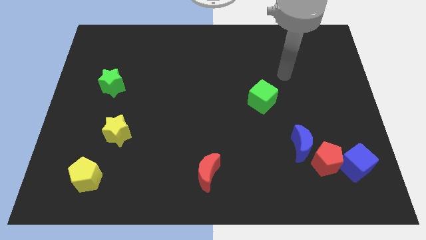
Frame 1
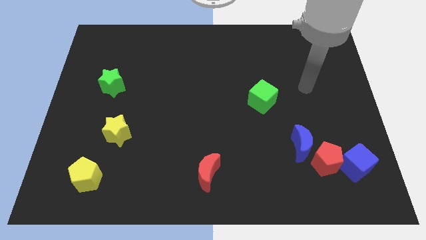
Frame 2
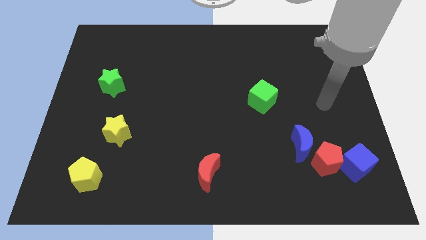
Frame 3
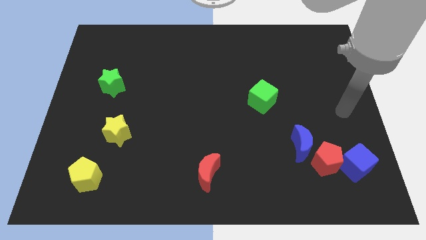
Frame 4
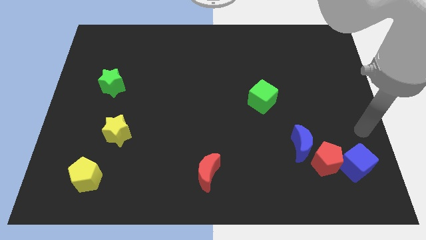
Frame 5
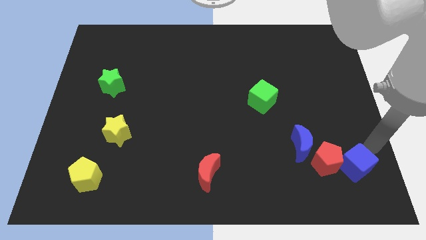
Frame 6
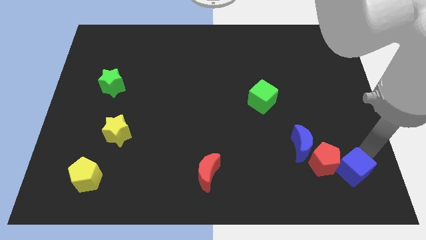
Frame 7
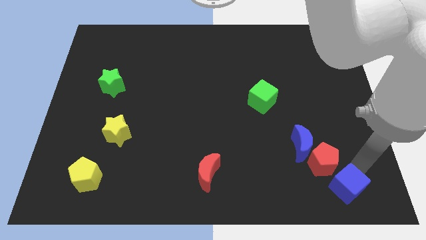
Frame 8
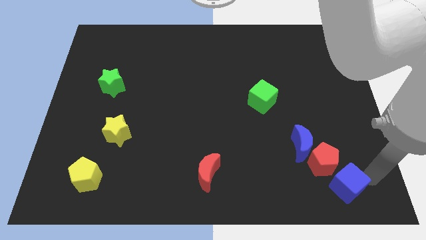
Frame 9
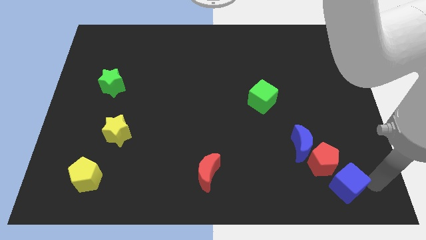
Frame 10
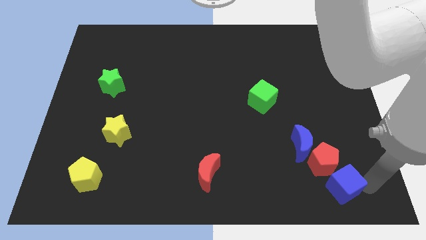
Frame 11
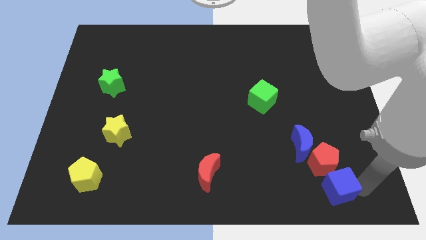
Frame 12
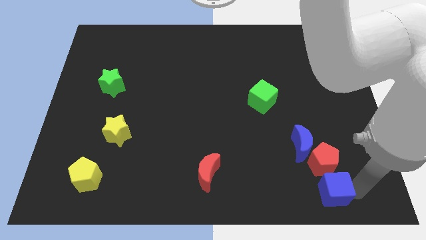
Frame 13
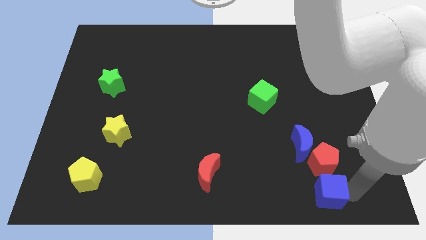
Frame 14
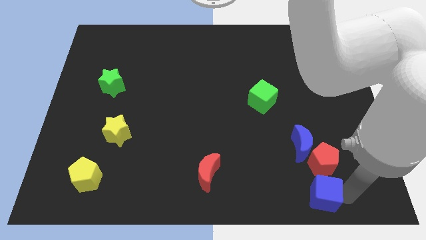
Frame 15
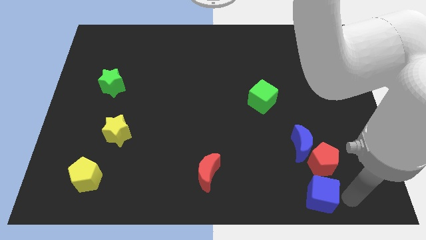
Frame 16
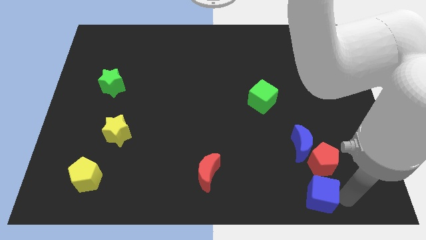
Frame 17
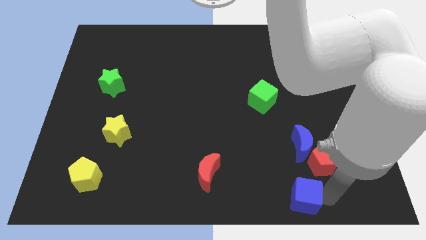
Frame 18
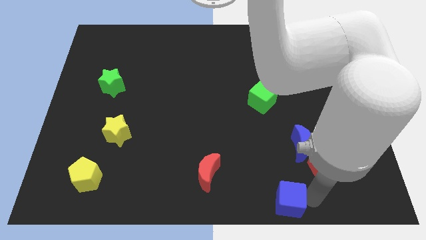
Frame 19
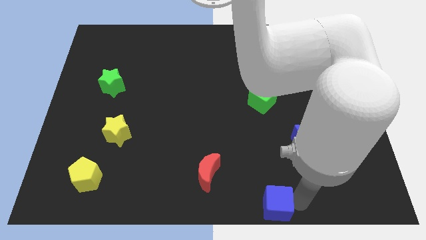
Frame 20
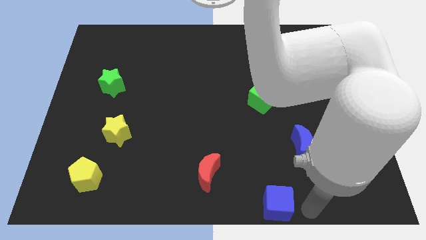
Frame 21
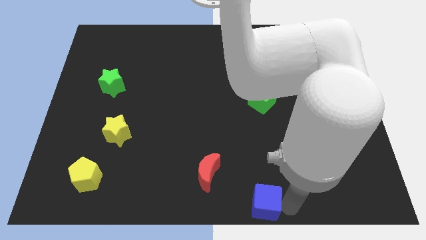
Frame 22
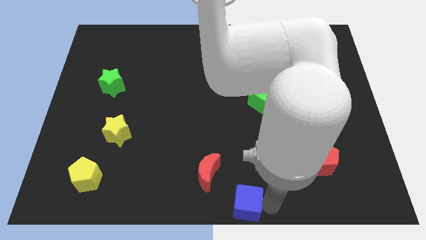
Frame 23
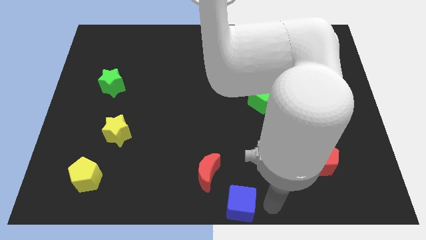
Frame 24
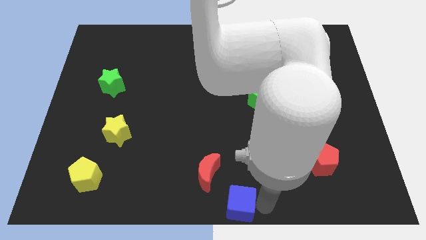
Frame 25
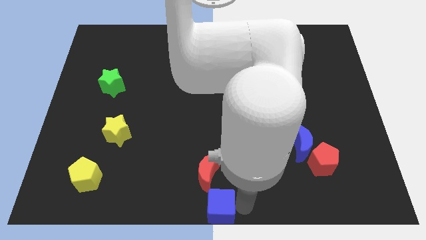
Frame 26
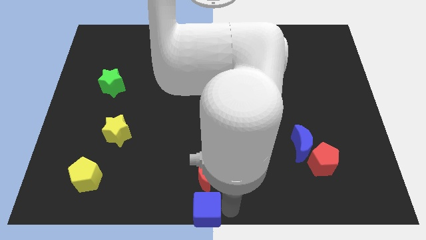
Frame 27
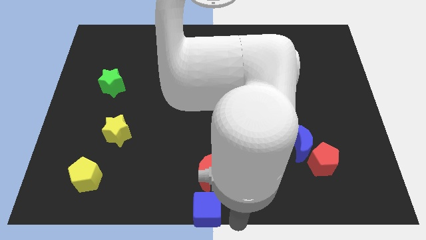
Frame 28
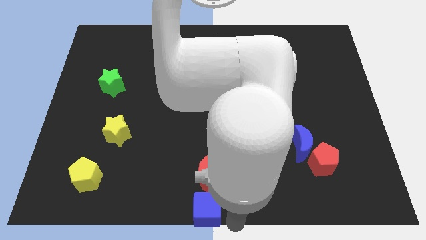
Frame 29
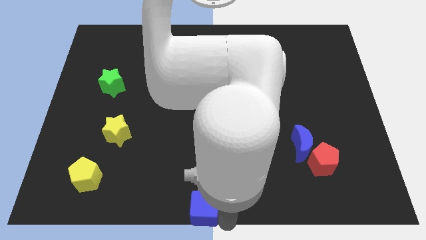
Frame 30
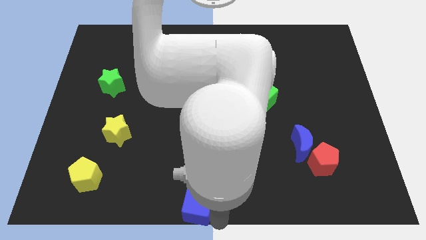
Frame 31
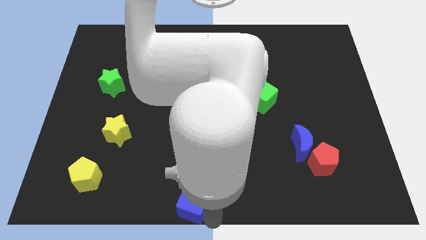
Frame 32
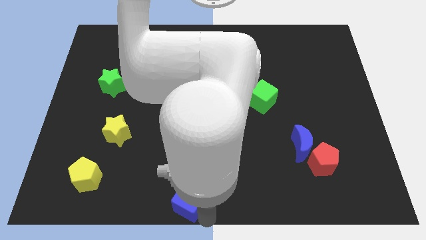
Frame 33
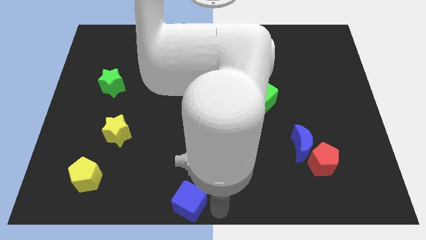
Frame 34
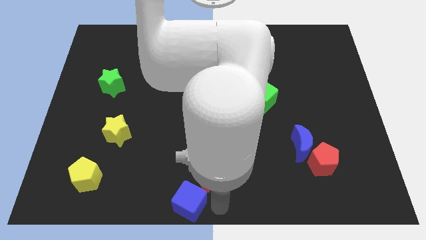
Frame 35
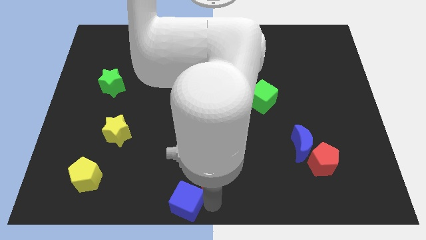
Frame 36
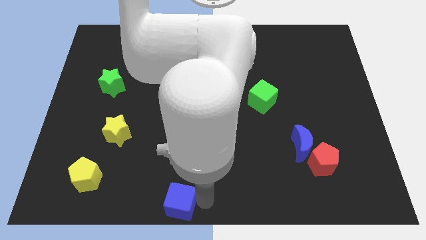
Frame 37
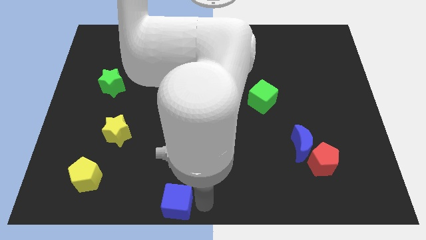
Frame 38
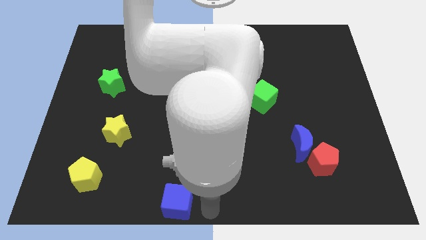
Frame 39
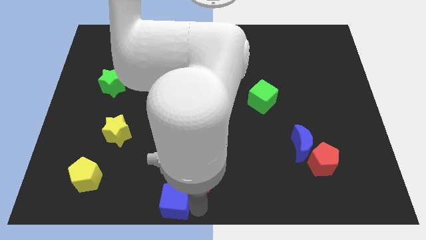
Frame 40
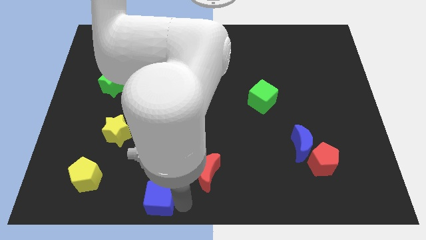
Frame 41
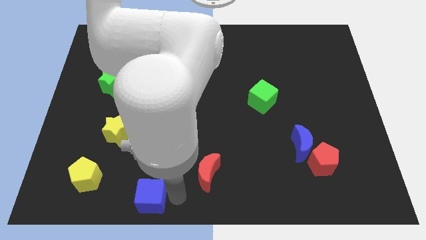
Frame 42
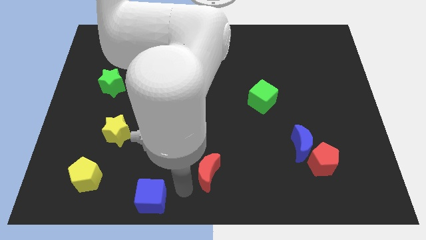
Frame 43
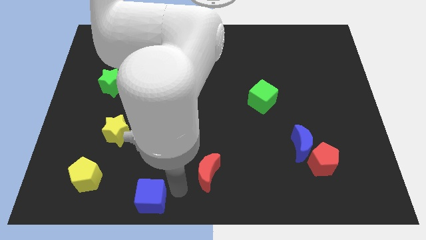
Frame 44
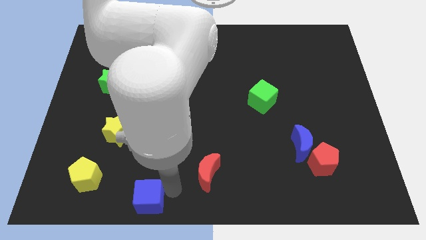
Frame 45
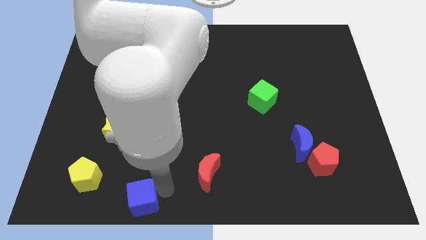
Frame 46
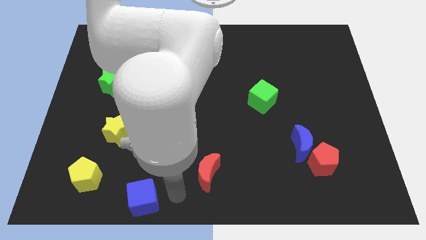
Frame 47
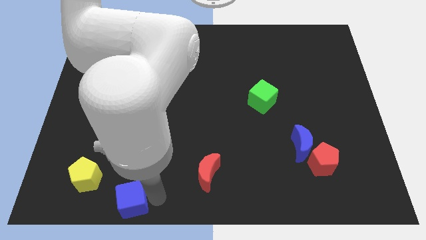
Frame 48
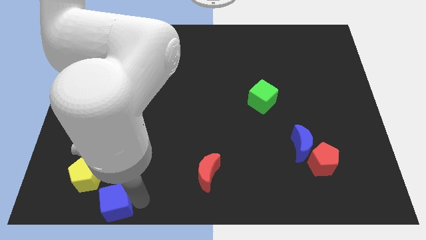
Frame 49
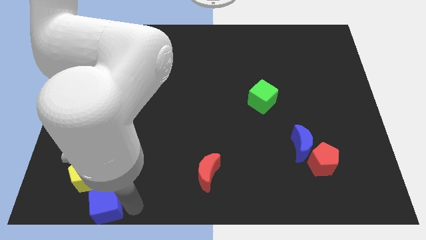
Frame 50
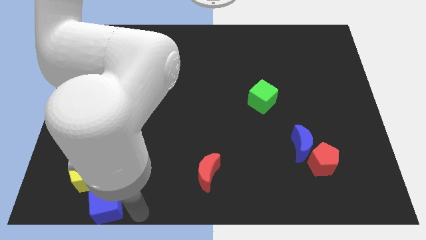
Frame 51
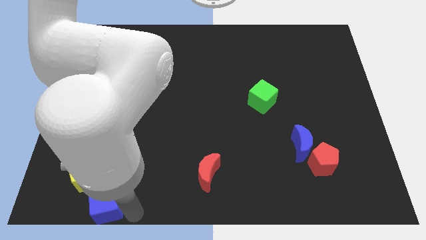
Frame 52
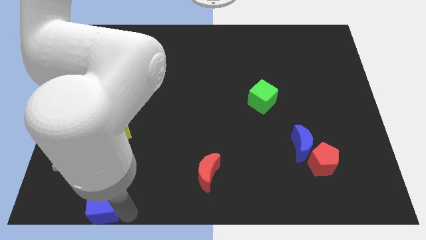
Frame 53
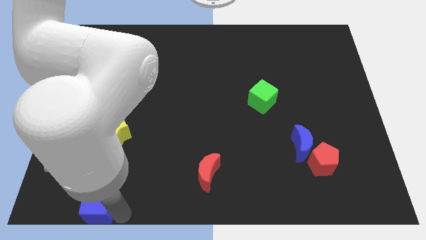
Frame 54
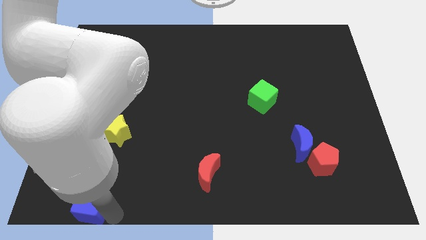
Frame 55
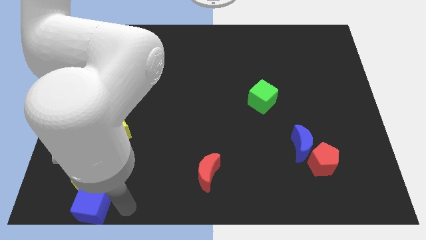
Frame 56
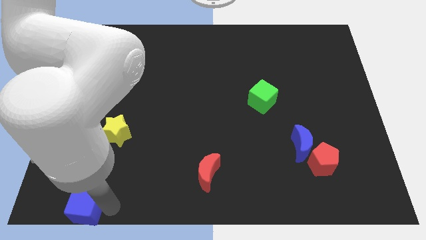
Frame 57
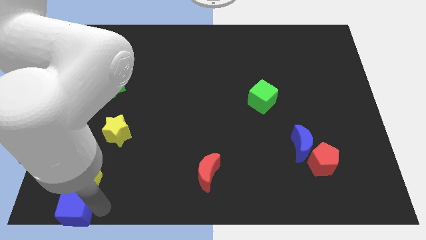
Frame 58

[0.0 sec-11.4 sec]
put the blue cube to the bottom left corner

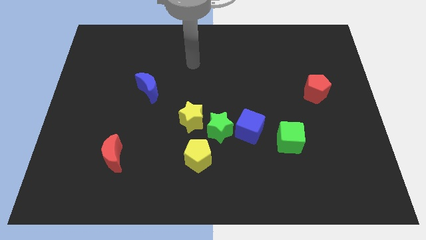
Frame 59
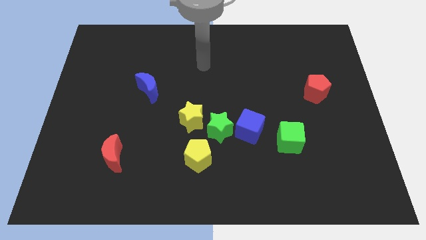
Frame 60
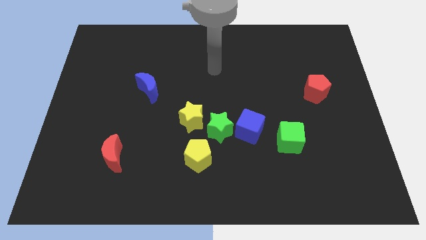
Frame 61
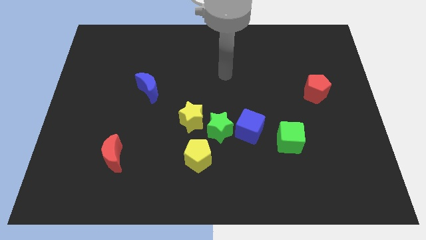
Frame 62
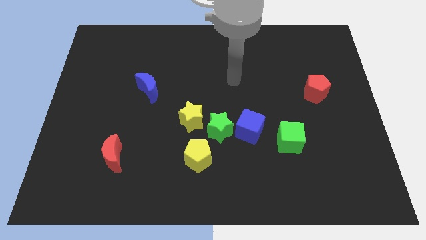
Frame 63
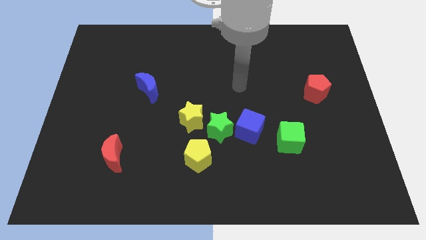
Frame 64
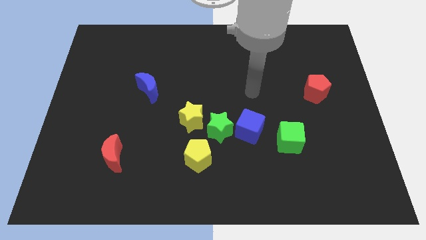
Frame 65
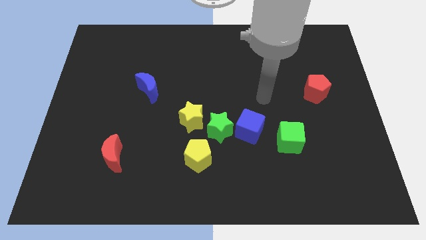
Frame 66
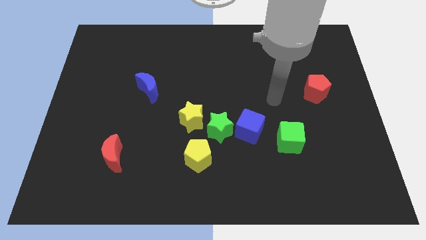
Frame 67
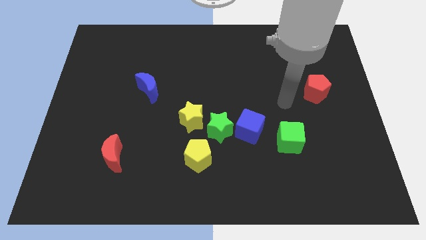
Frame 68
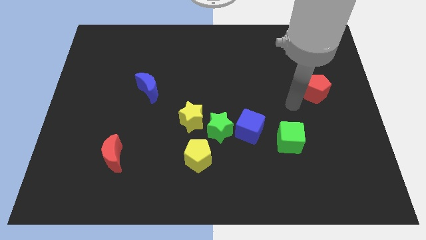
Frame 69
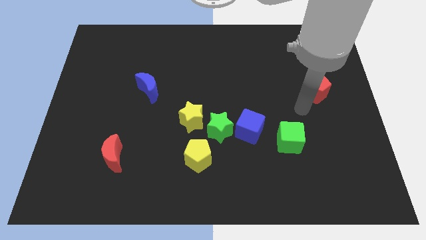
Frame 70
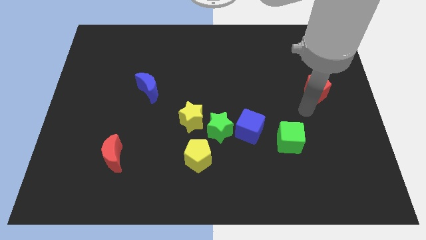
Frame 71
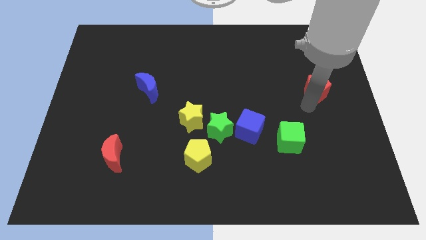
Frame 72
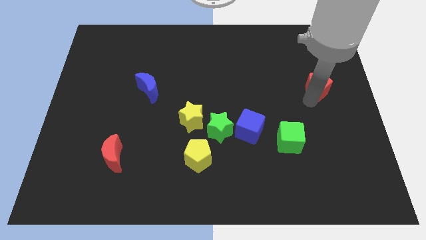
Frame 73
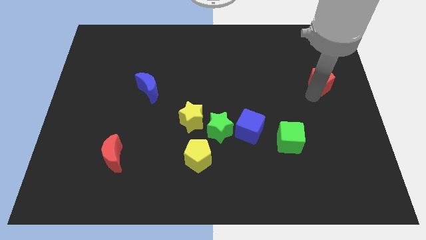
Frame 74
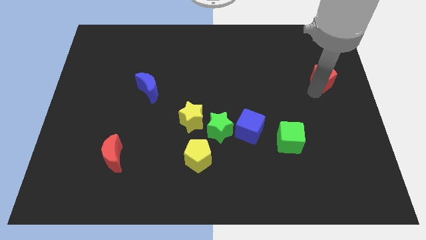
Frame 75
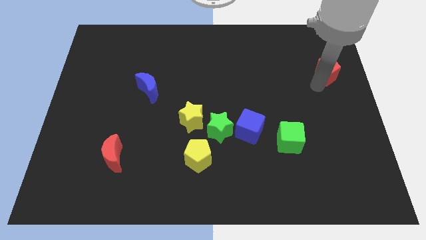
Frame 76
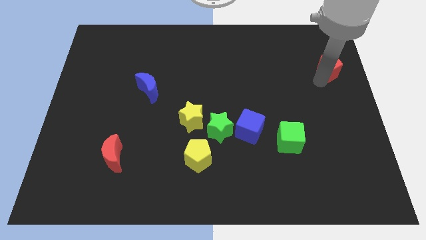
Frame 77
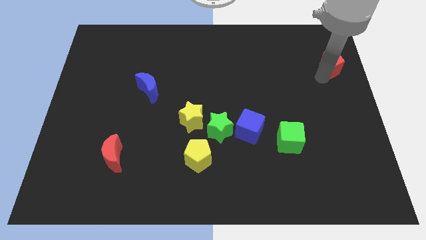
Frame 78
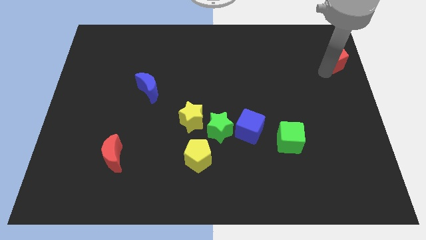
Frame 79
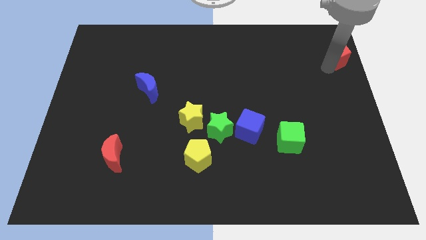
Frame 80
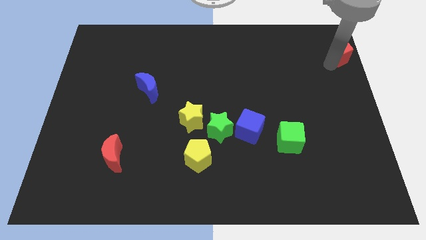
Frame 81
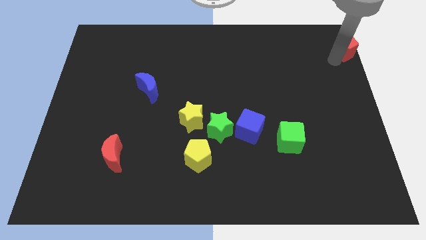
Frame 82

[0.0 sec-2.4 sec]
put the red pentagon to the top right
